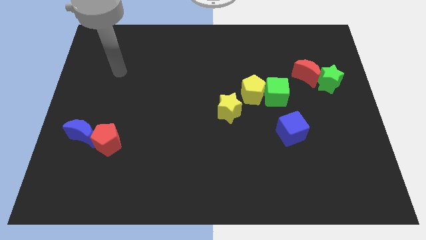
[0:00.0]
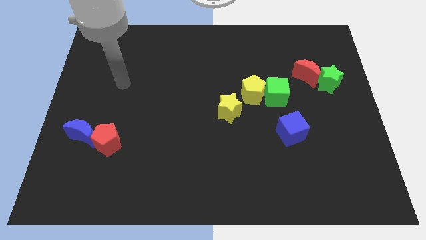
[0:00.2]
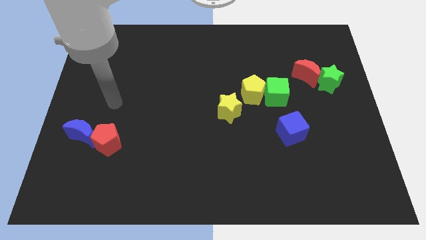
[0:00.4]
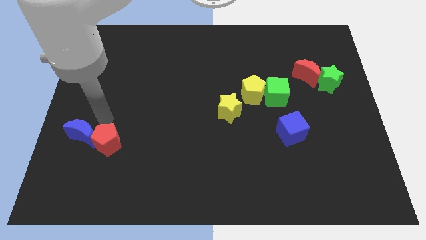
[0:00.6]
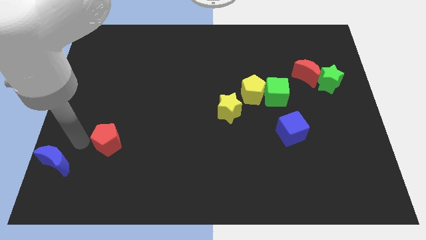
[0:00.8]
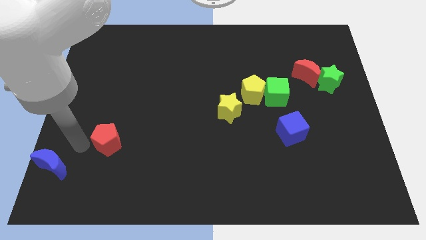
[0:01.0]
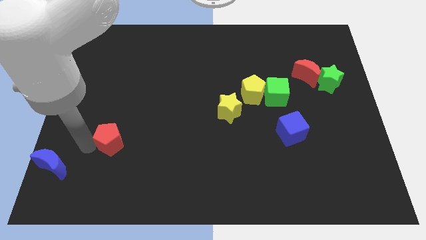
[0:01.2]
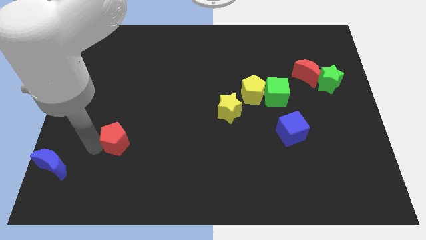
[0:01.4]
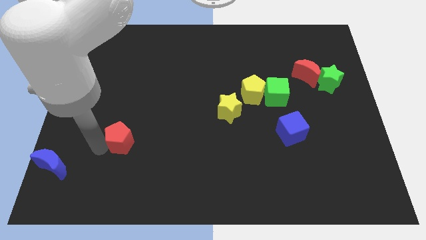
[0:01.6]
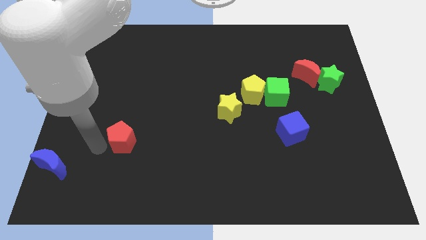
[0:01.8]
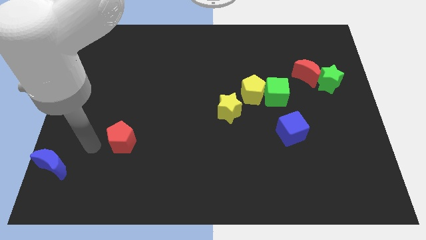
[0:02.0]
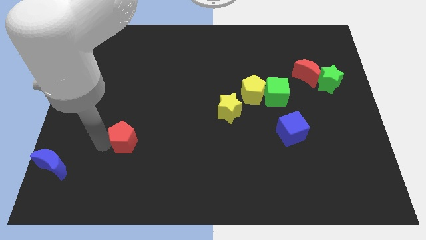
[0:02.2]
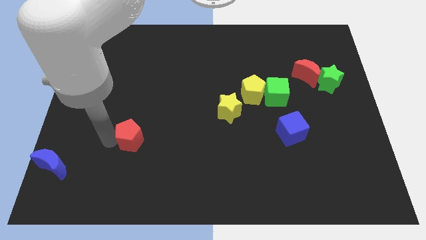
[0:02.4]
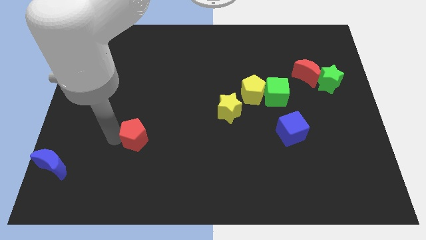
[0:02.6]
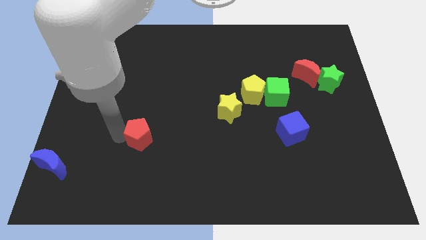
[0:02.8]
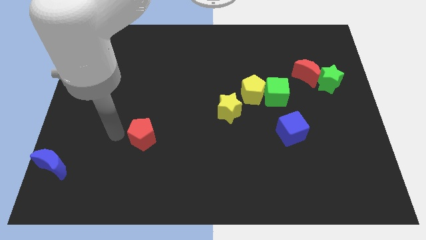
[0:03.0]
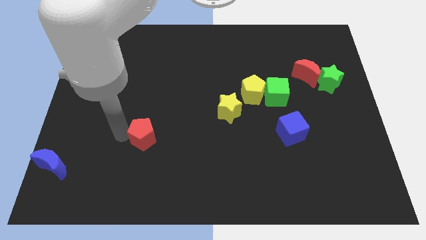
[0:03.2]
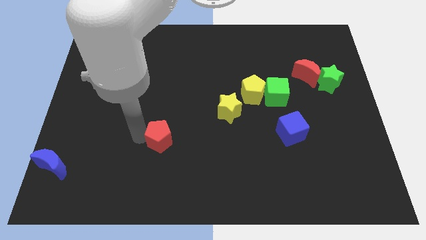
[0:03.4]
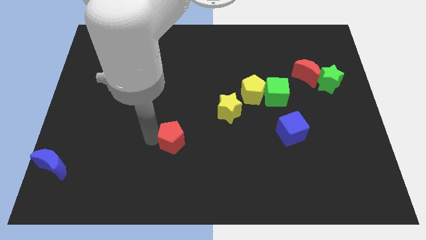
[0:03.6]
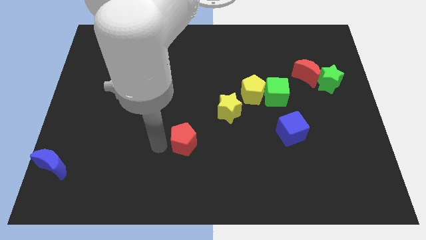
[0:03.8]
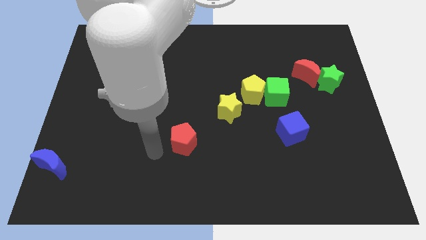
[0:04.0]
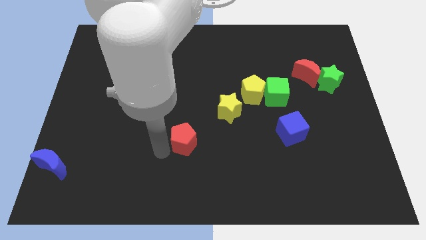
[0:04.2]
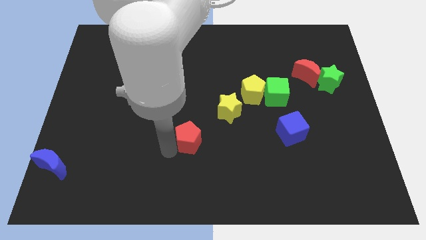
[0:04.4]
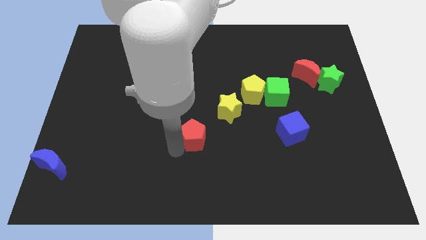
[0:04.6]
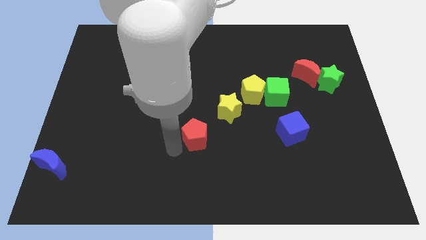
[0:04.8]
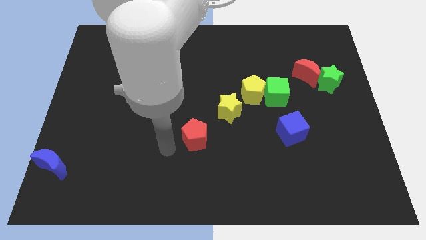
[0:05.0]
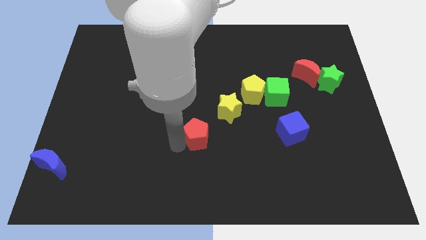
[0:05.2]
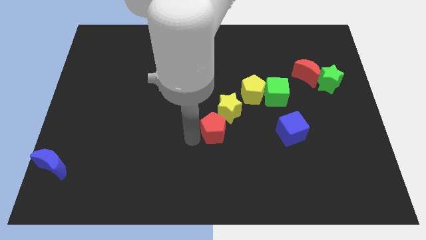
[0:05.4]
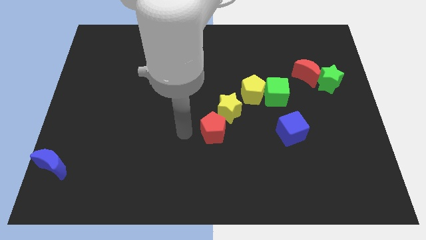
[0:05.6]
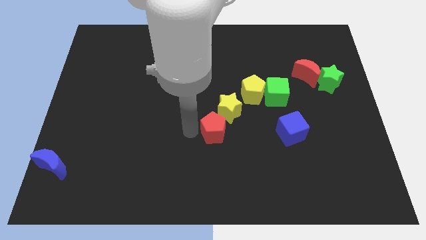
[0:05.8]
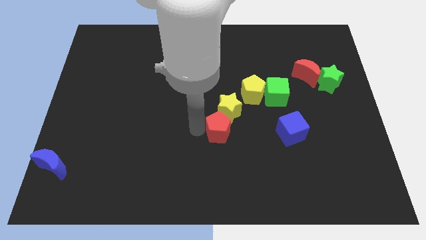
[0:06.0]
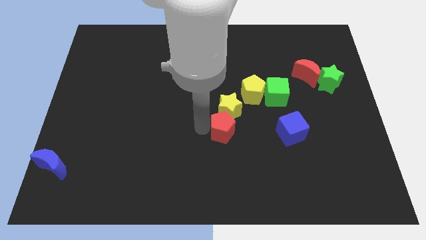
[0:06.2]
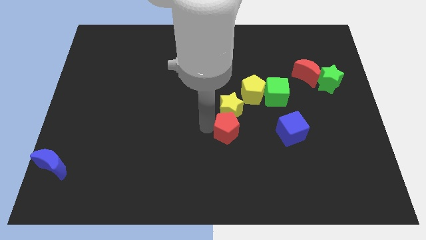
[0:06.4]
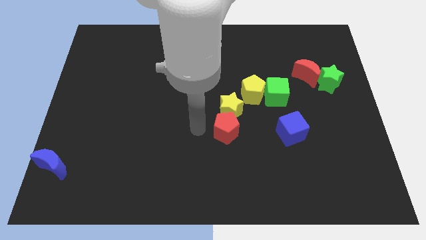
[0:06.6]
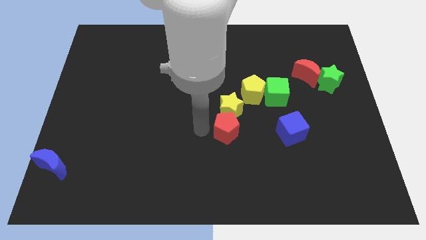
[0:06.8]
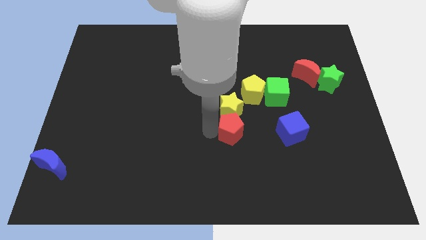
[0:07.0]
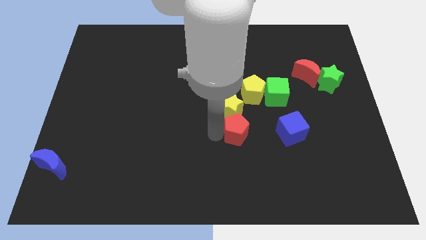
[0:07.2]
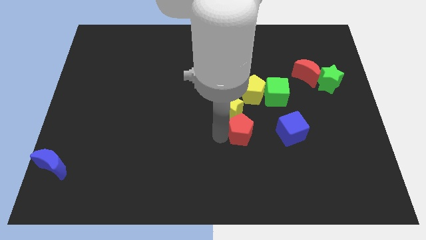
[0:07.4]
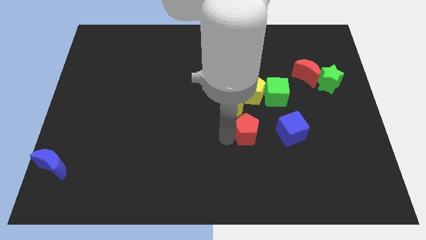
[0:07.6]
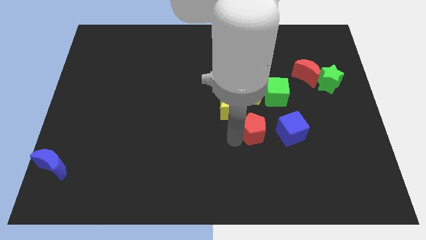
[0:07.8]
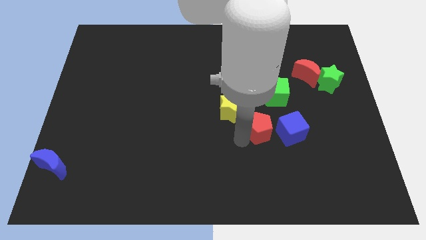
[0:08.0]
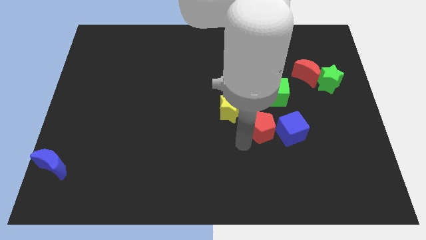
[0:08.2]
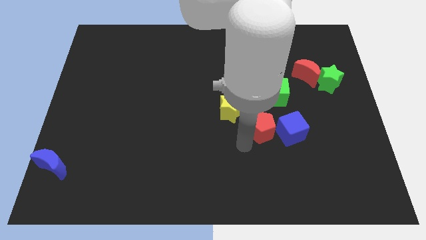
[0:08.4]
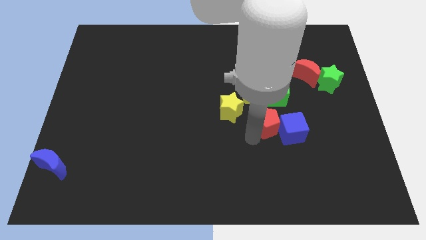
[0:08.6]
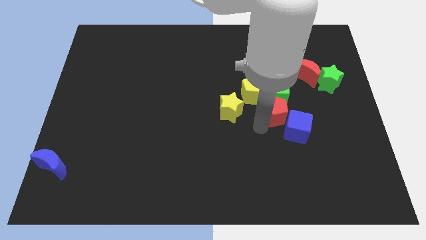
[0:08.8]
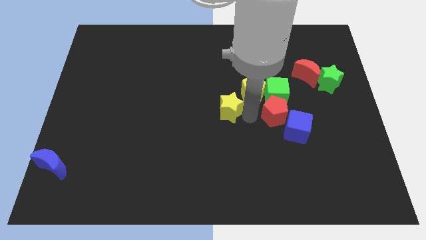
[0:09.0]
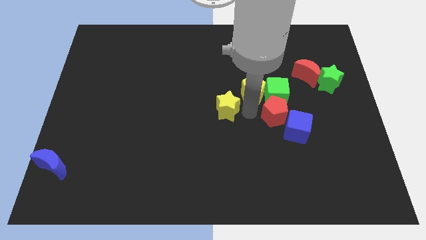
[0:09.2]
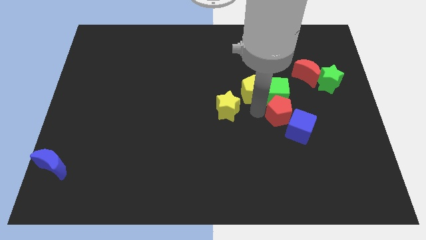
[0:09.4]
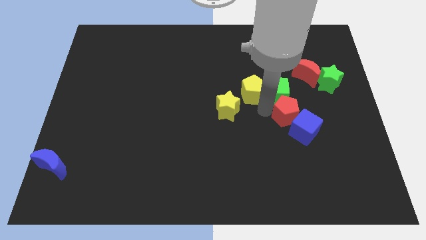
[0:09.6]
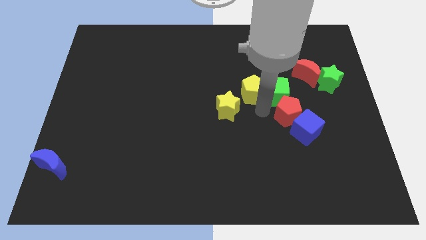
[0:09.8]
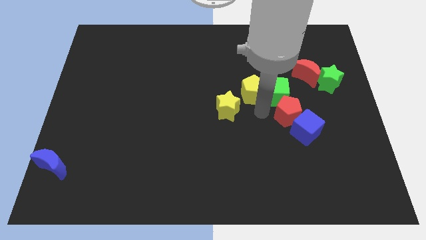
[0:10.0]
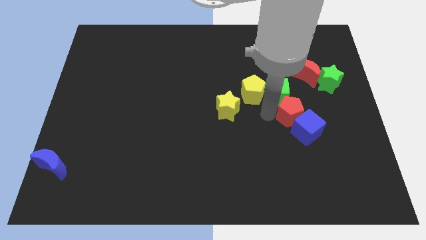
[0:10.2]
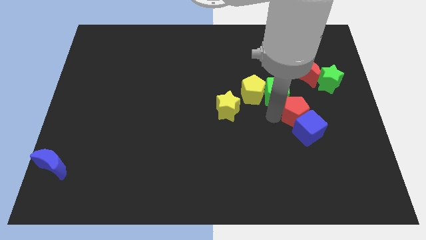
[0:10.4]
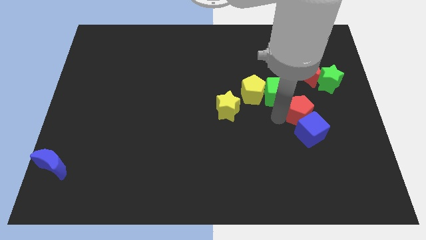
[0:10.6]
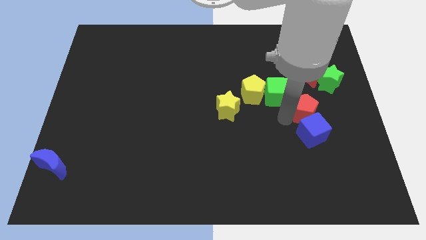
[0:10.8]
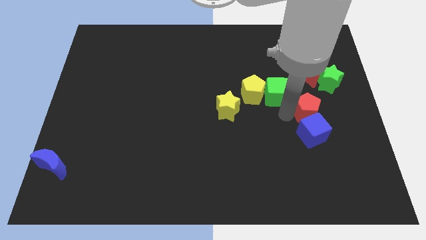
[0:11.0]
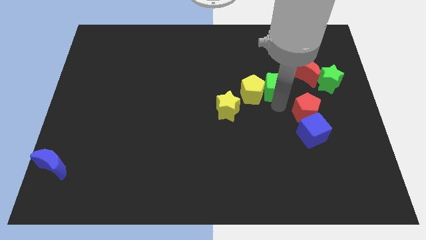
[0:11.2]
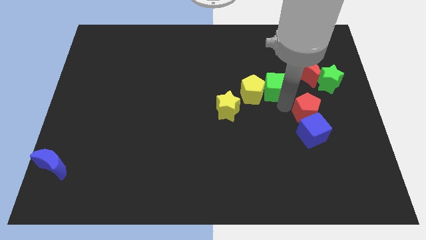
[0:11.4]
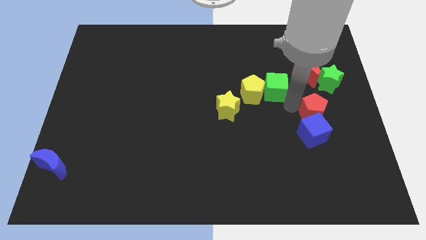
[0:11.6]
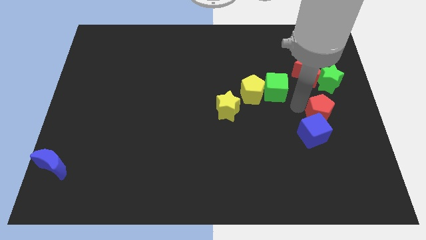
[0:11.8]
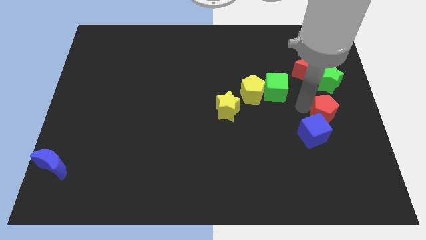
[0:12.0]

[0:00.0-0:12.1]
put the red pentagon to the right side
